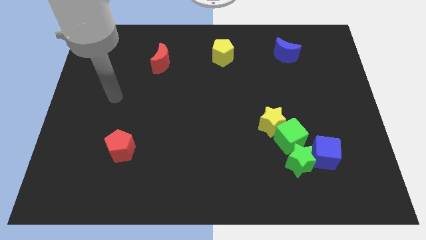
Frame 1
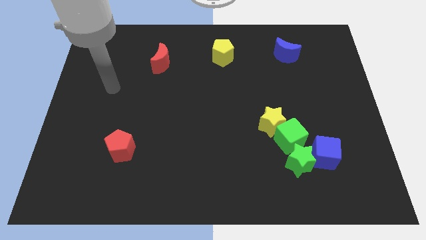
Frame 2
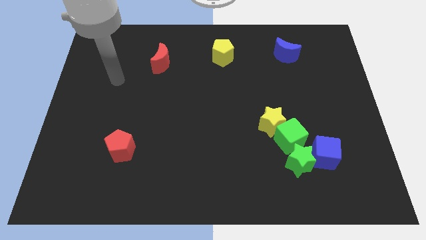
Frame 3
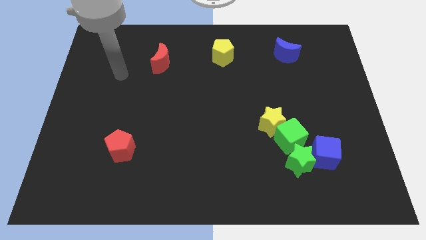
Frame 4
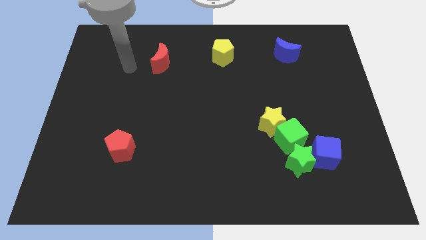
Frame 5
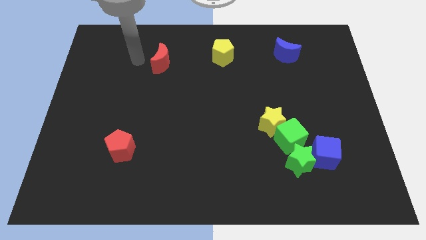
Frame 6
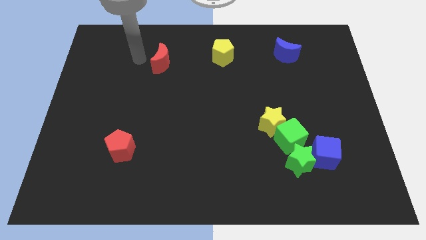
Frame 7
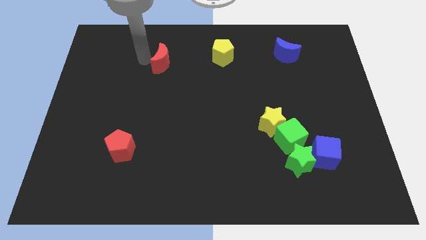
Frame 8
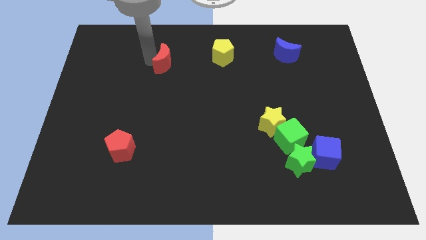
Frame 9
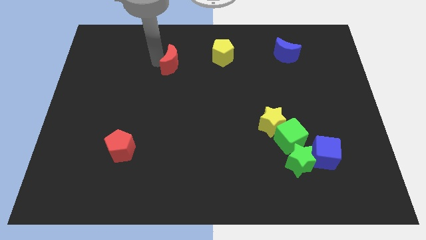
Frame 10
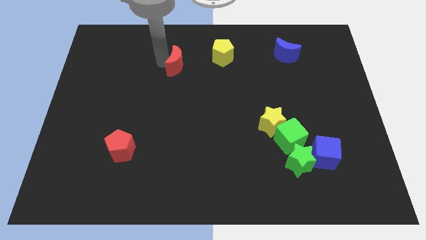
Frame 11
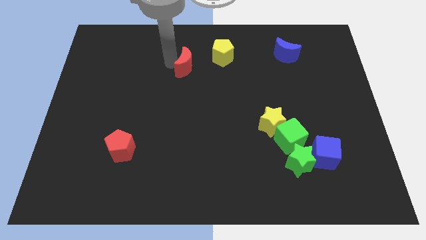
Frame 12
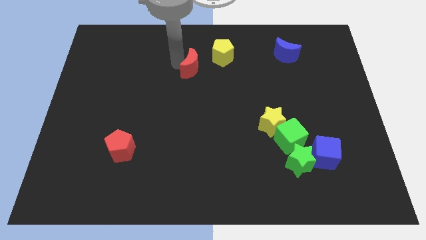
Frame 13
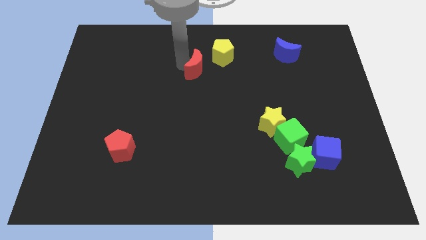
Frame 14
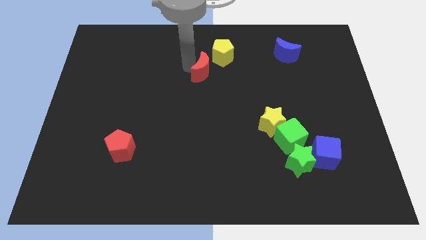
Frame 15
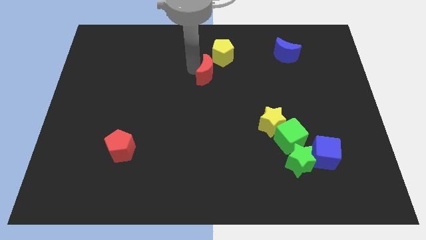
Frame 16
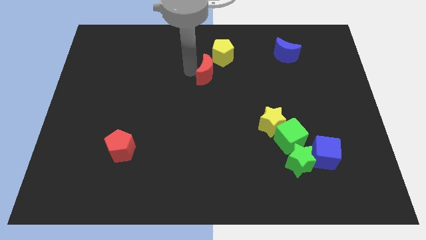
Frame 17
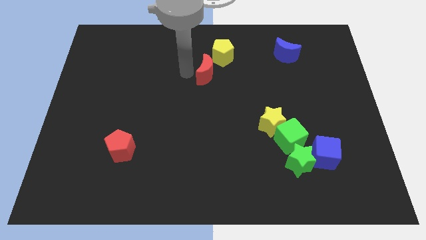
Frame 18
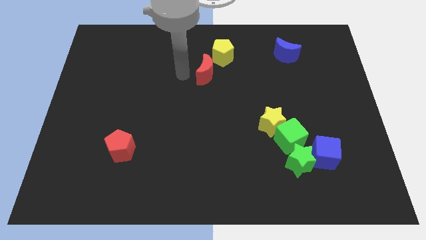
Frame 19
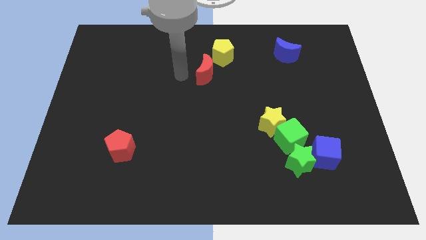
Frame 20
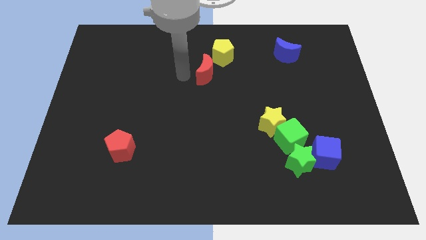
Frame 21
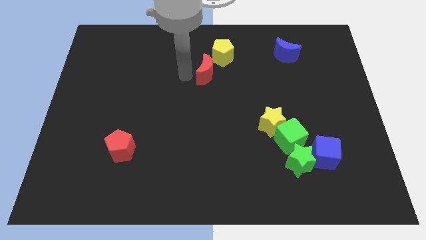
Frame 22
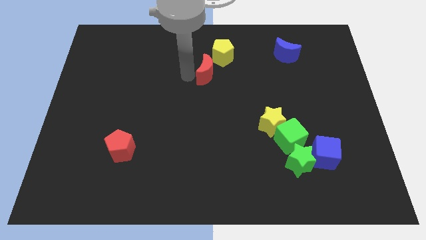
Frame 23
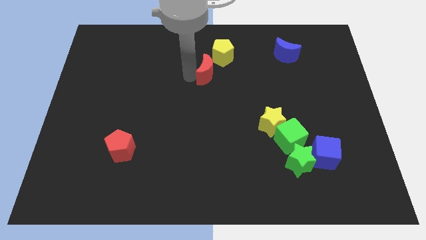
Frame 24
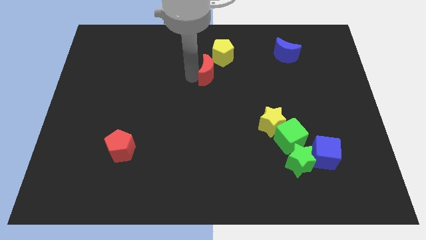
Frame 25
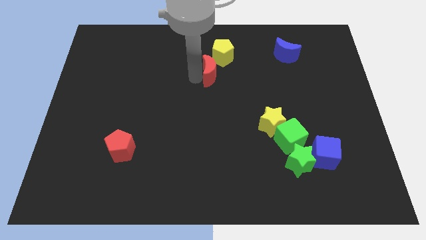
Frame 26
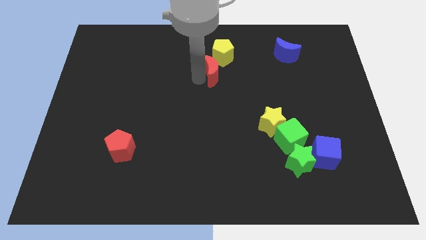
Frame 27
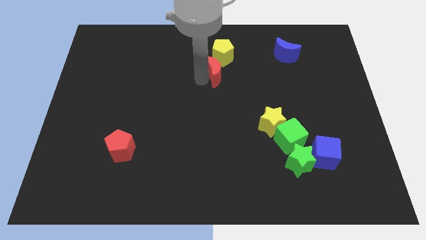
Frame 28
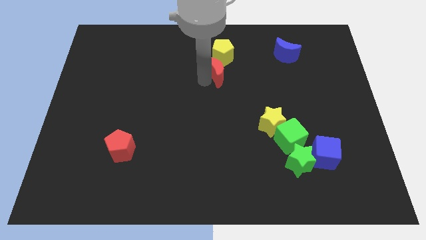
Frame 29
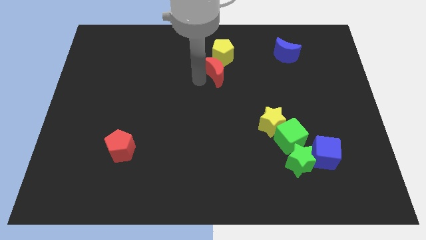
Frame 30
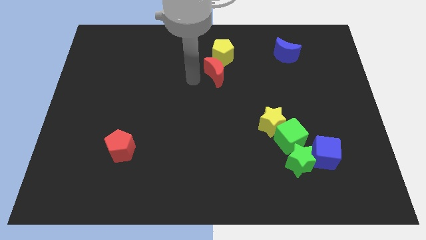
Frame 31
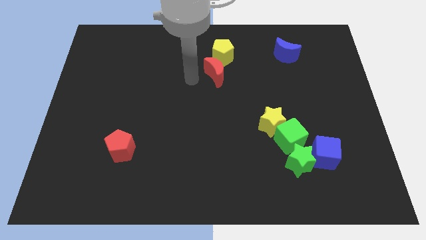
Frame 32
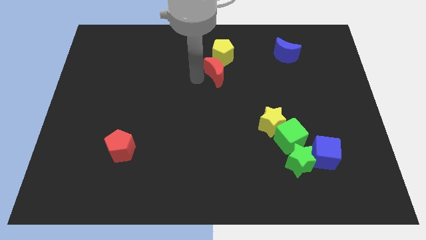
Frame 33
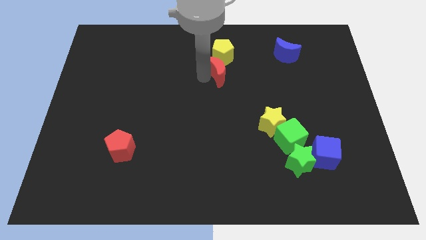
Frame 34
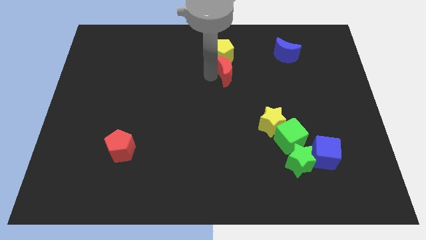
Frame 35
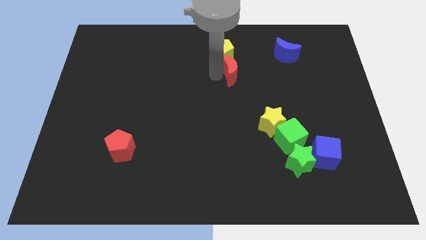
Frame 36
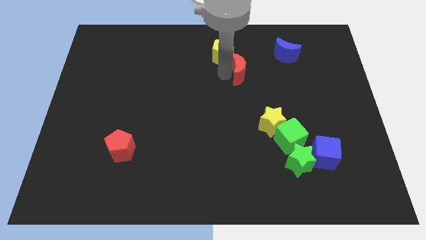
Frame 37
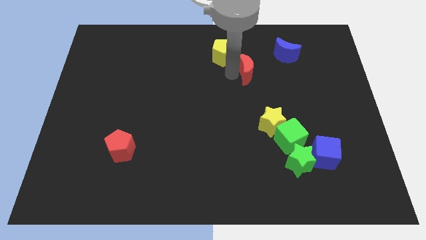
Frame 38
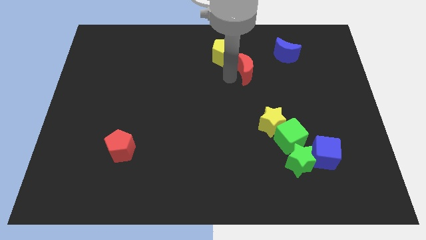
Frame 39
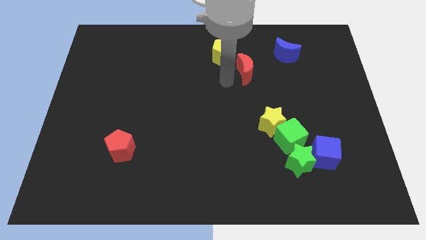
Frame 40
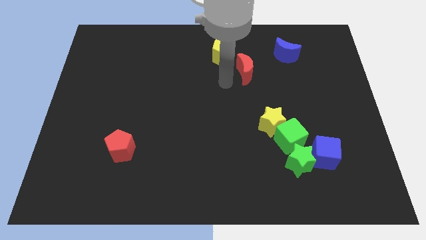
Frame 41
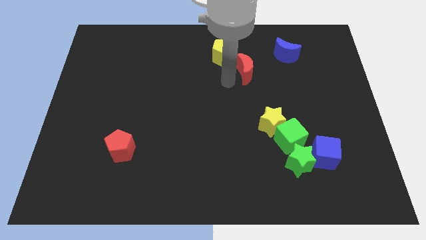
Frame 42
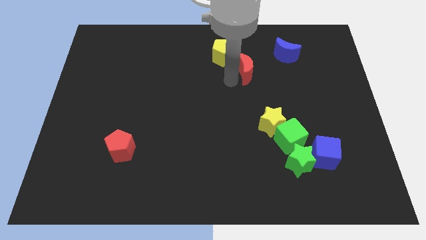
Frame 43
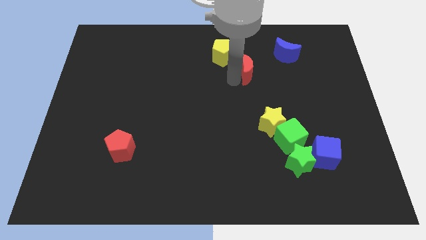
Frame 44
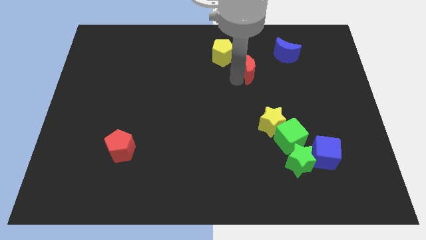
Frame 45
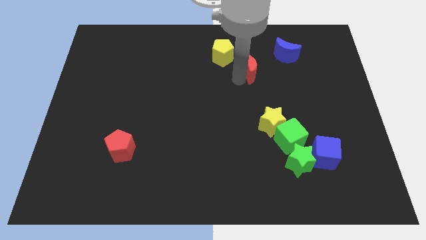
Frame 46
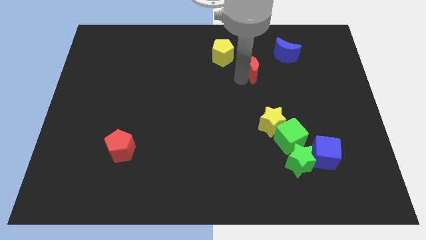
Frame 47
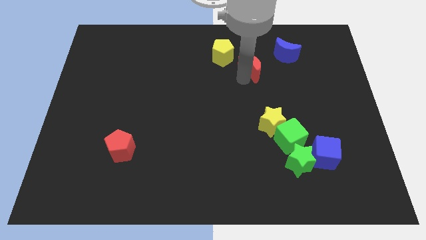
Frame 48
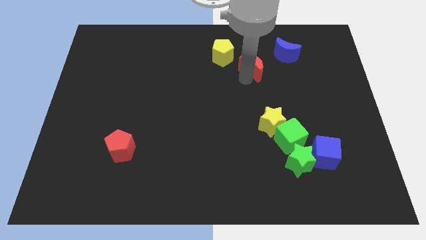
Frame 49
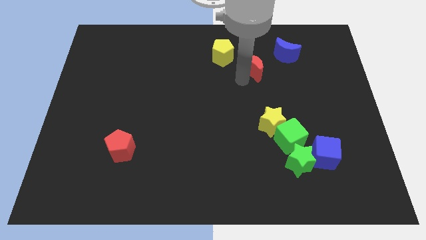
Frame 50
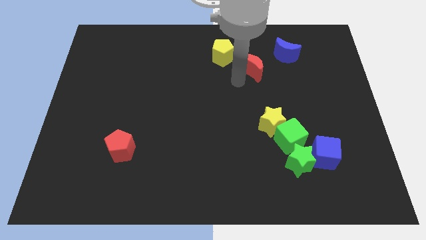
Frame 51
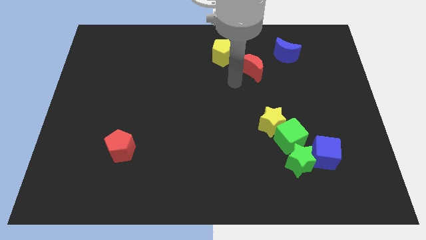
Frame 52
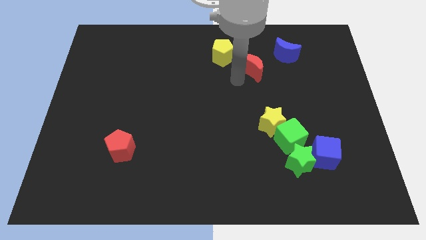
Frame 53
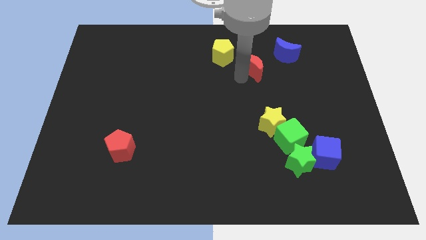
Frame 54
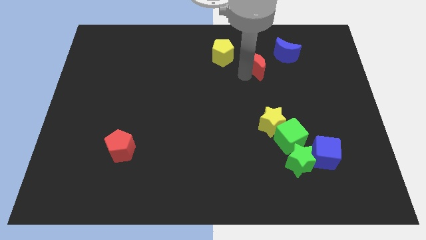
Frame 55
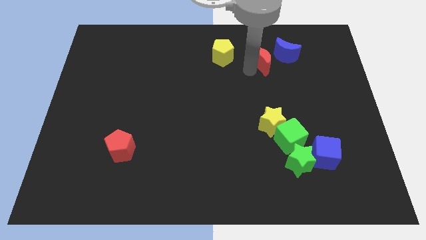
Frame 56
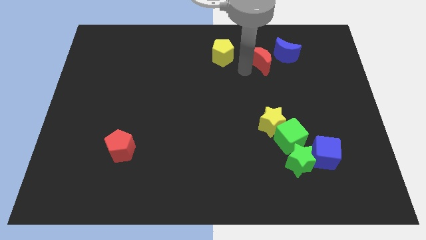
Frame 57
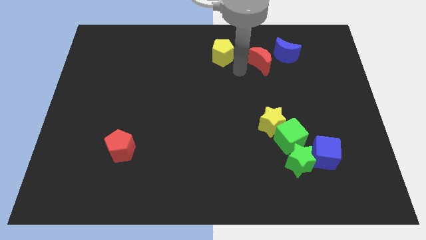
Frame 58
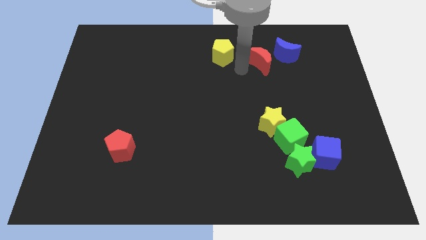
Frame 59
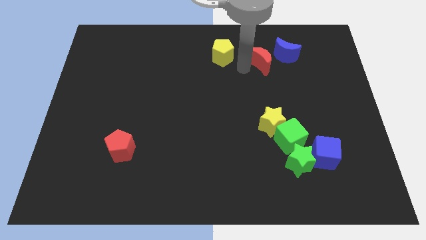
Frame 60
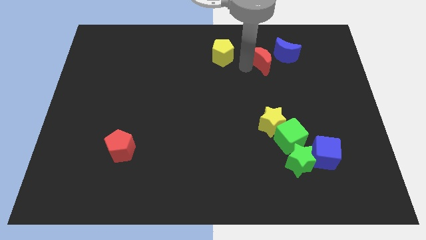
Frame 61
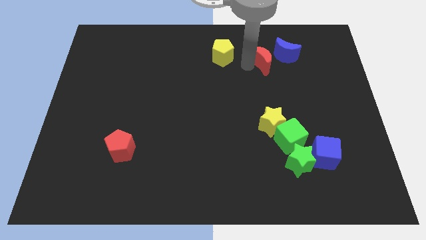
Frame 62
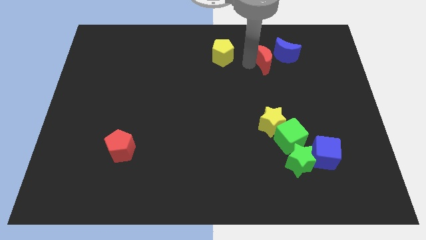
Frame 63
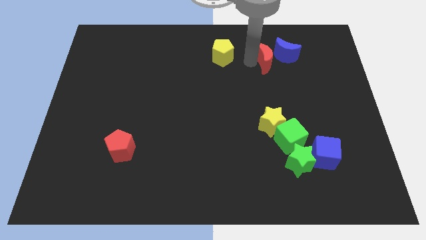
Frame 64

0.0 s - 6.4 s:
move the red moon to the blue moon

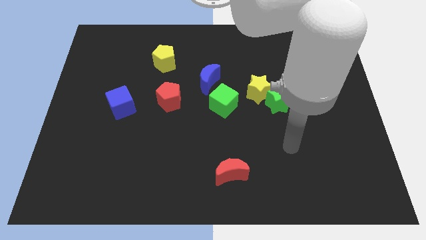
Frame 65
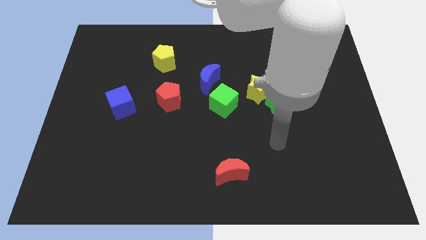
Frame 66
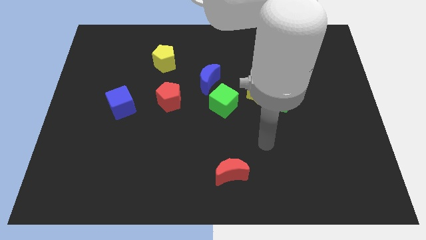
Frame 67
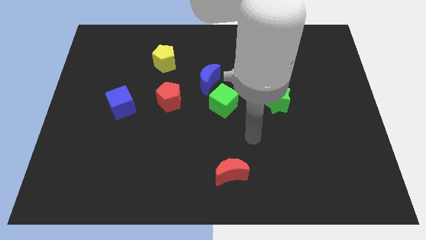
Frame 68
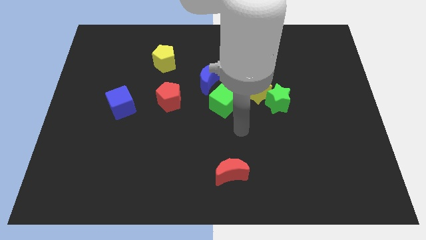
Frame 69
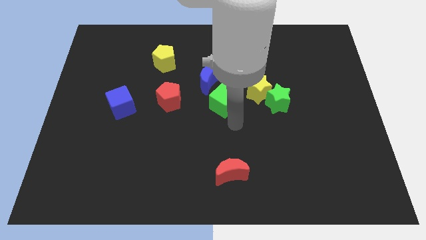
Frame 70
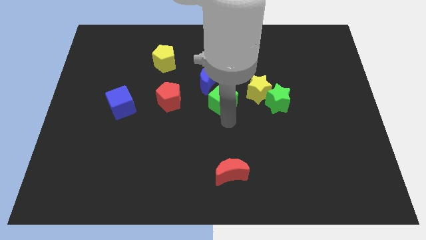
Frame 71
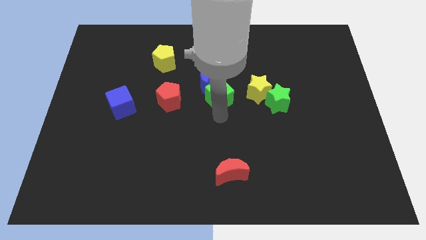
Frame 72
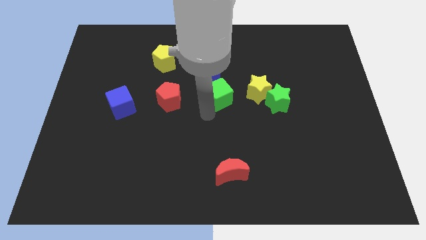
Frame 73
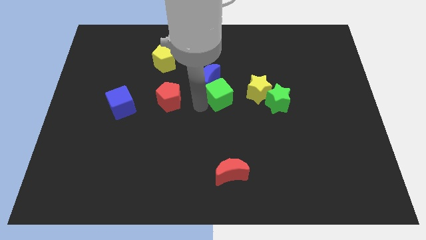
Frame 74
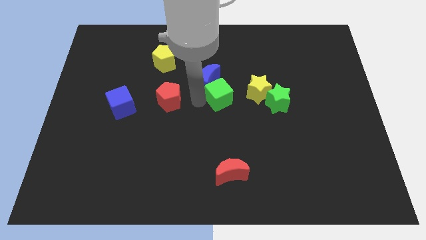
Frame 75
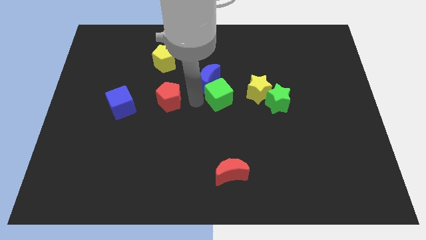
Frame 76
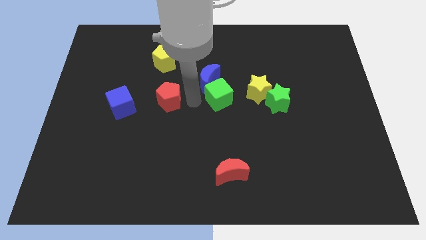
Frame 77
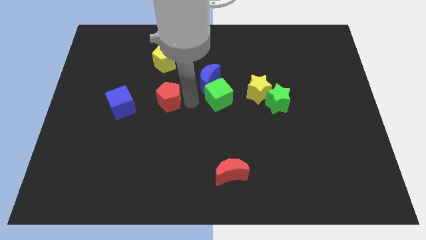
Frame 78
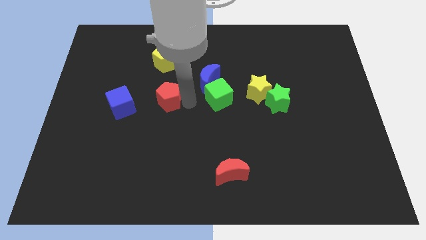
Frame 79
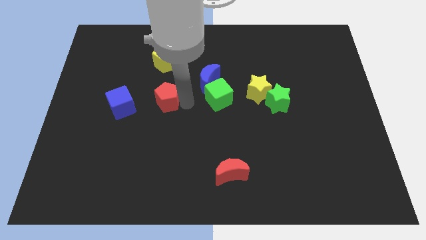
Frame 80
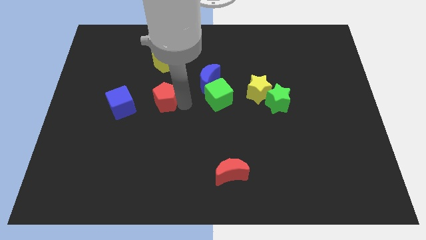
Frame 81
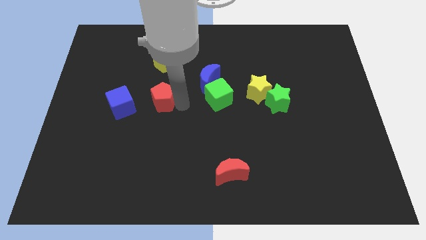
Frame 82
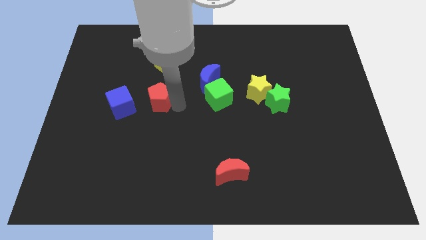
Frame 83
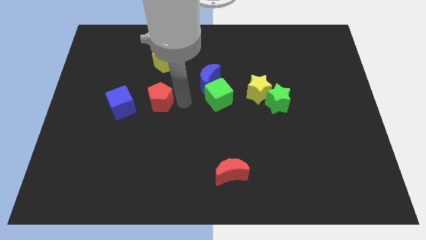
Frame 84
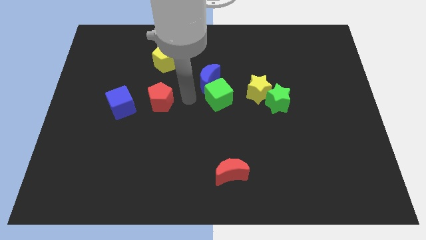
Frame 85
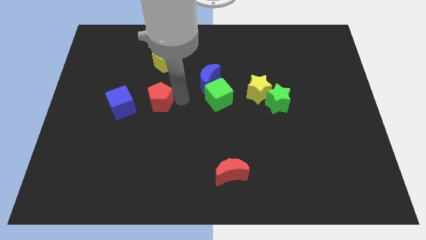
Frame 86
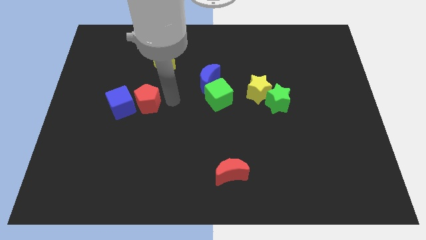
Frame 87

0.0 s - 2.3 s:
move the red pentagon next to the blue cube
